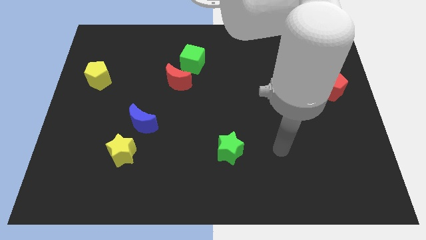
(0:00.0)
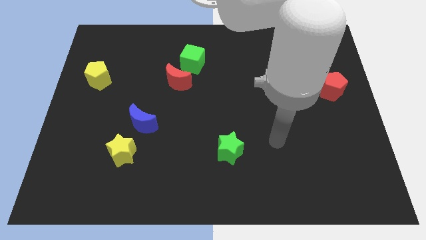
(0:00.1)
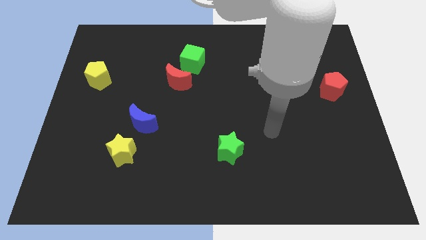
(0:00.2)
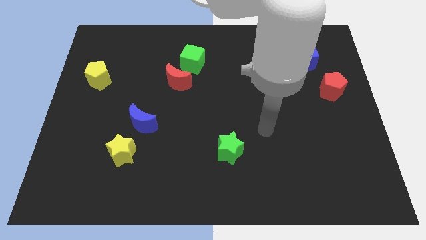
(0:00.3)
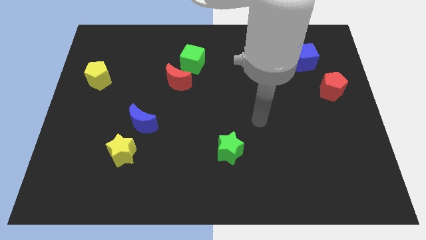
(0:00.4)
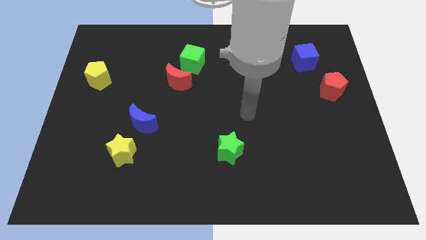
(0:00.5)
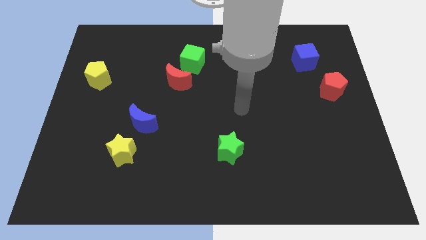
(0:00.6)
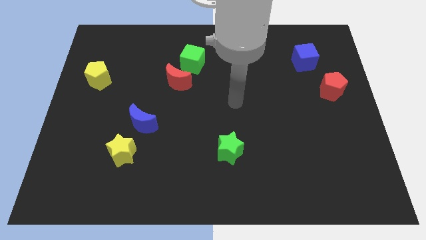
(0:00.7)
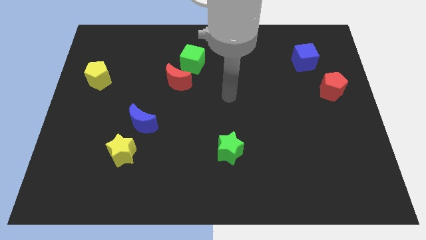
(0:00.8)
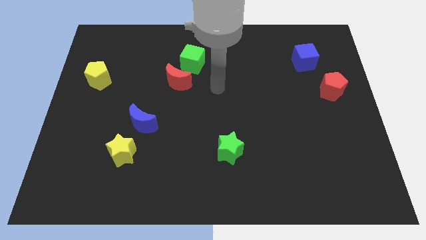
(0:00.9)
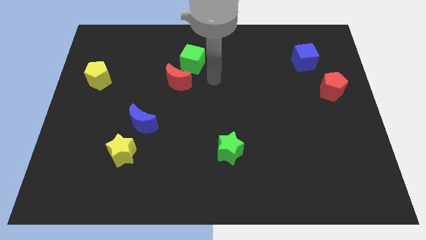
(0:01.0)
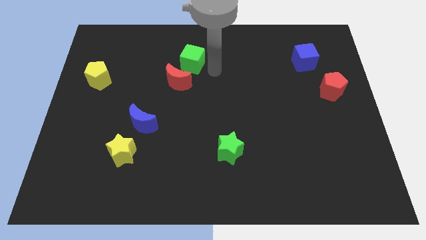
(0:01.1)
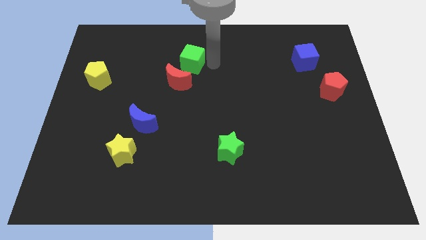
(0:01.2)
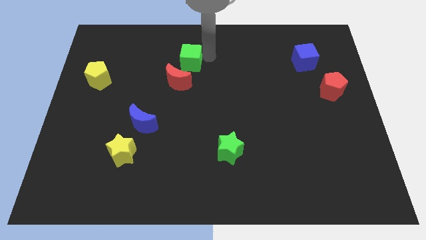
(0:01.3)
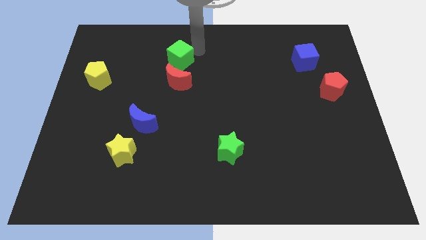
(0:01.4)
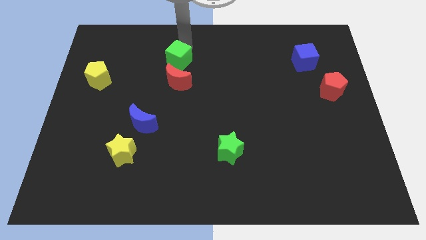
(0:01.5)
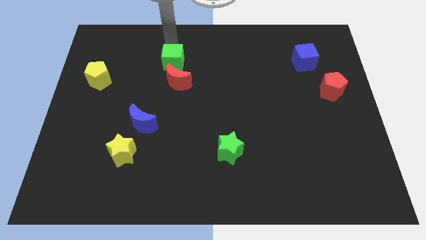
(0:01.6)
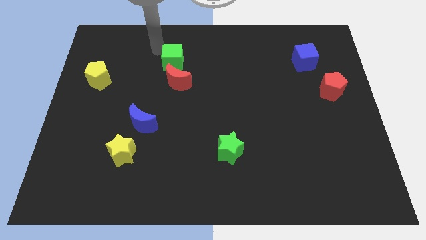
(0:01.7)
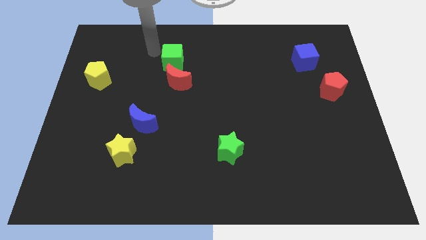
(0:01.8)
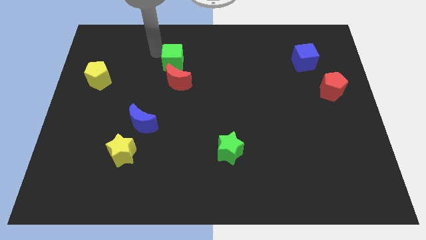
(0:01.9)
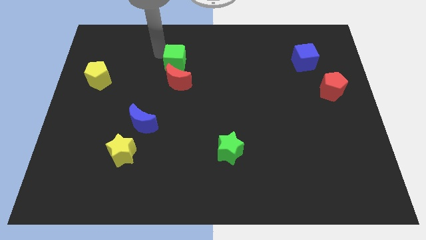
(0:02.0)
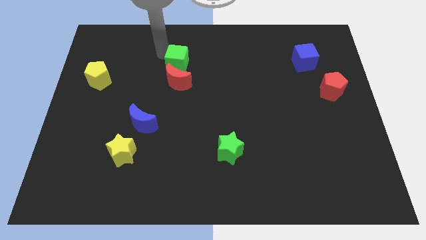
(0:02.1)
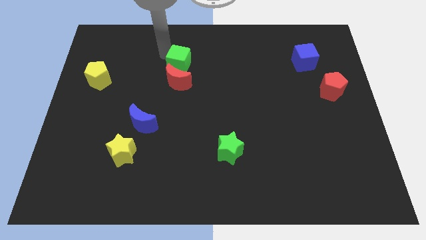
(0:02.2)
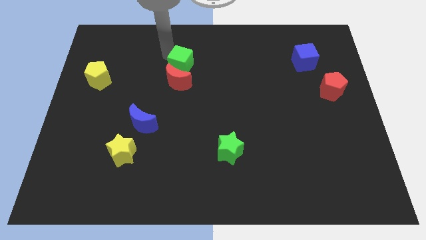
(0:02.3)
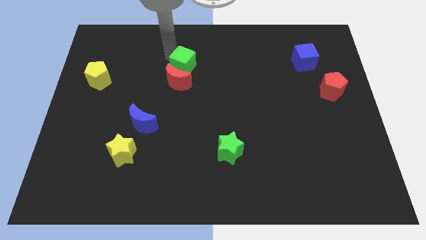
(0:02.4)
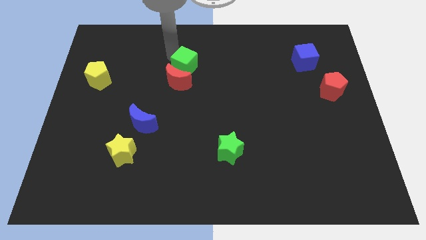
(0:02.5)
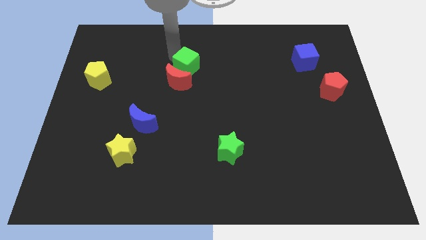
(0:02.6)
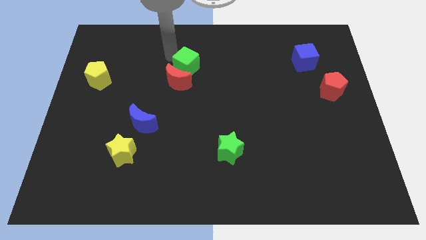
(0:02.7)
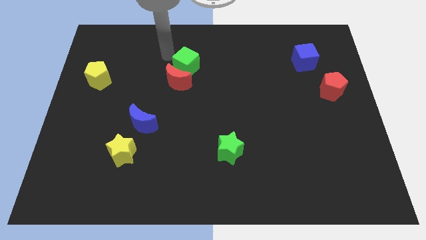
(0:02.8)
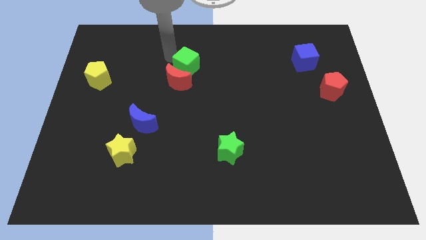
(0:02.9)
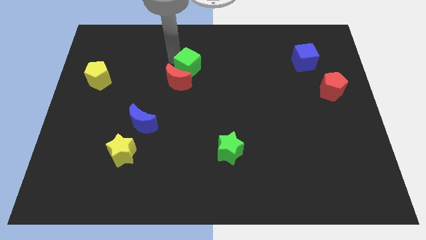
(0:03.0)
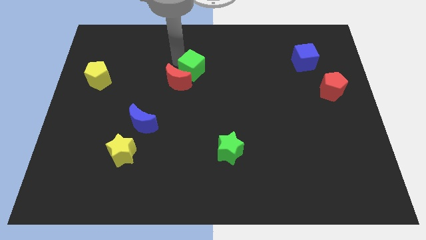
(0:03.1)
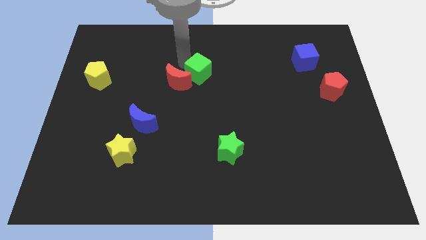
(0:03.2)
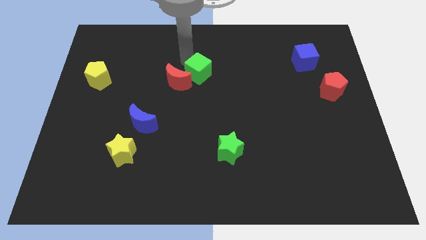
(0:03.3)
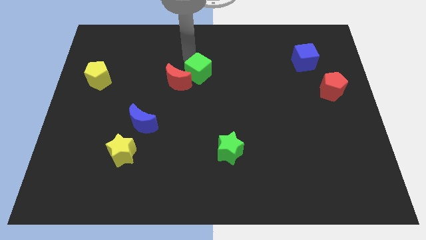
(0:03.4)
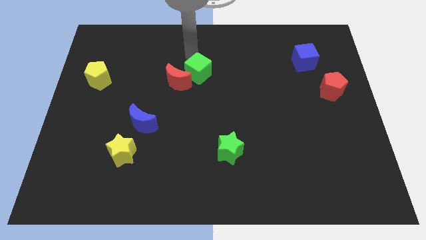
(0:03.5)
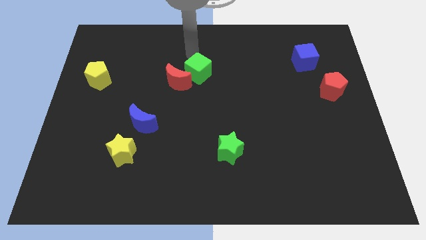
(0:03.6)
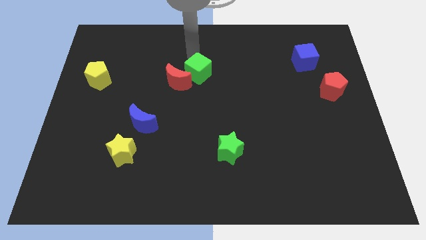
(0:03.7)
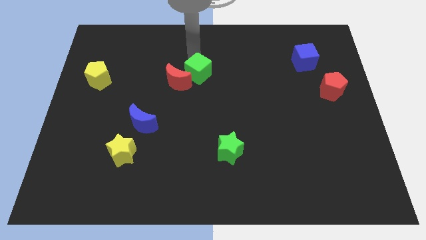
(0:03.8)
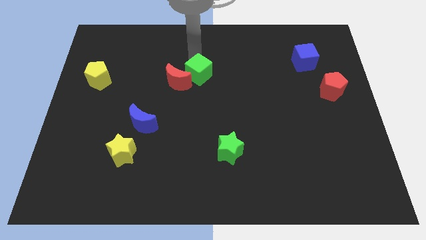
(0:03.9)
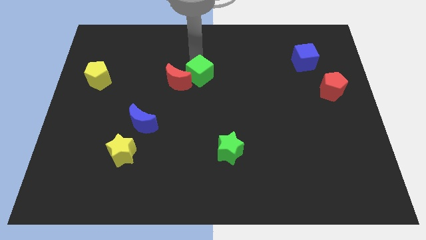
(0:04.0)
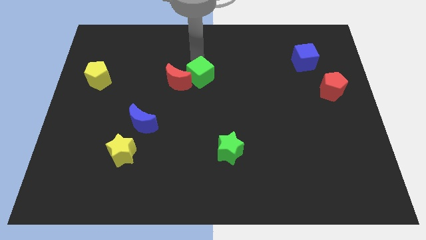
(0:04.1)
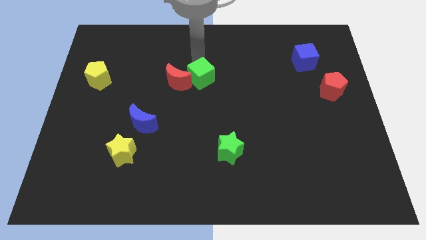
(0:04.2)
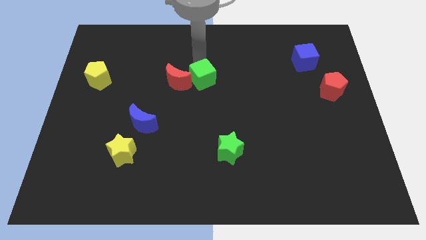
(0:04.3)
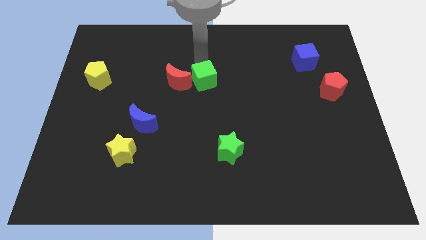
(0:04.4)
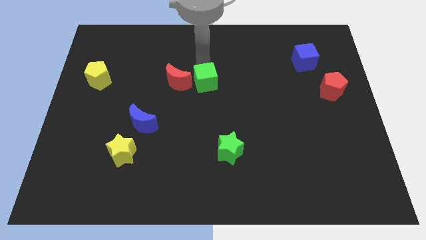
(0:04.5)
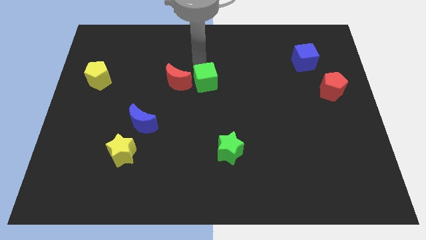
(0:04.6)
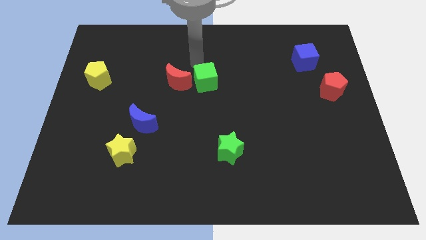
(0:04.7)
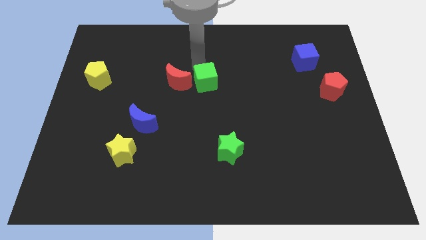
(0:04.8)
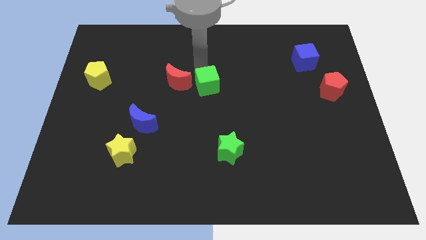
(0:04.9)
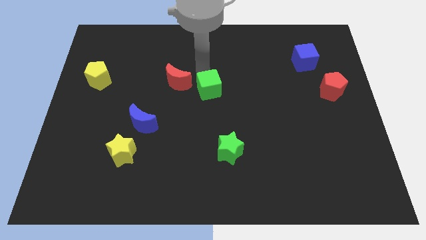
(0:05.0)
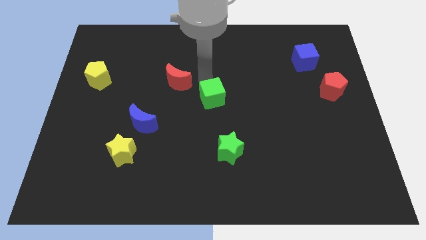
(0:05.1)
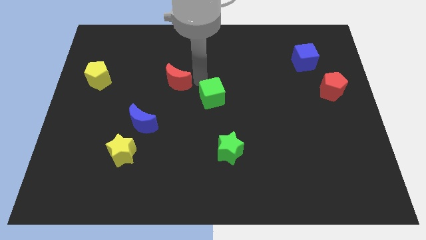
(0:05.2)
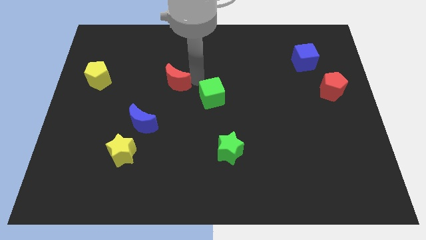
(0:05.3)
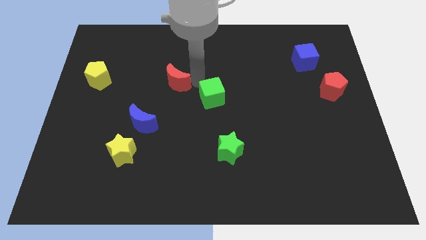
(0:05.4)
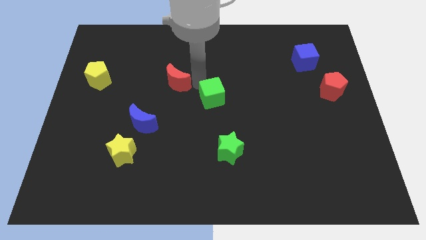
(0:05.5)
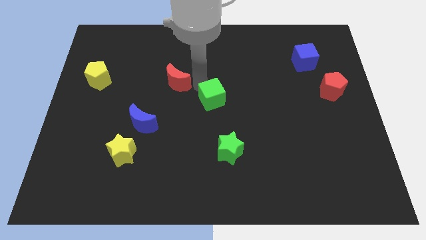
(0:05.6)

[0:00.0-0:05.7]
put the green cube to the top of the green star

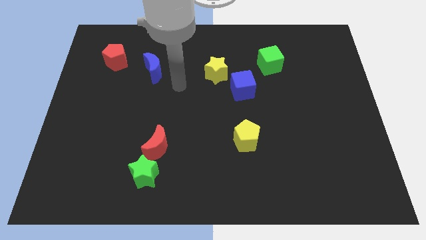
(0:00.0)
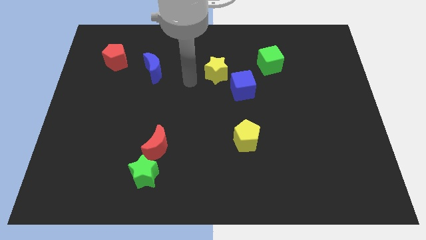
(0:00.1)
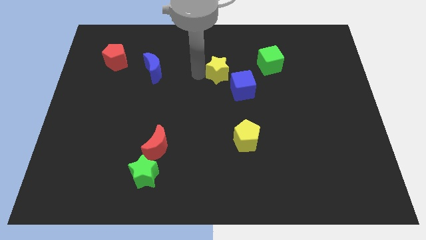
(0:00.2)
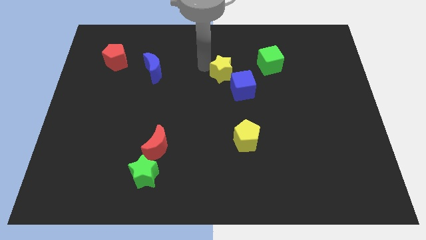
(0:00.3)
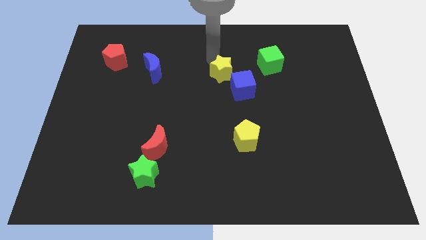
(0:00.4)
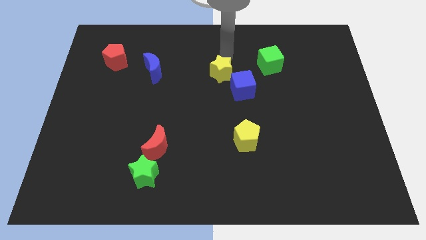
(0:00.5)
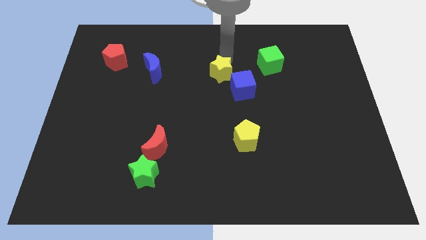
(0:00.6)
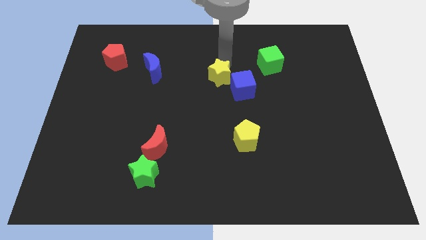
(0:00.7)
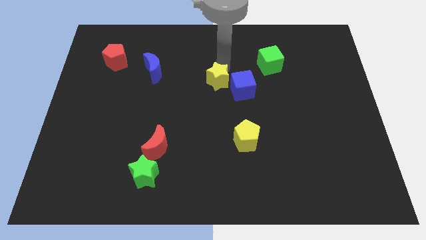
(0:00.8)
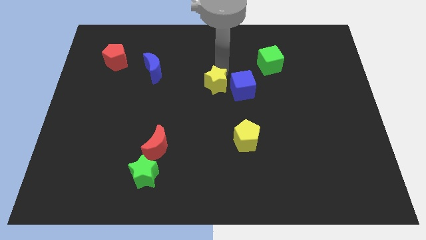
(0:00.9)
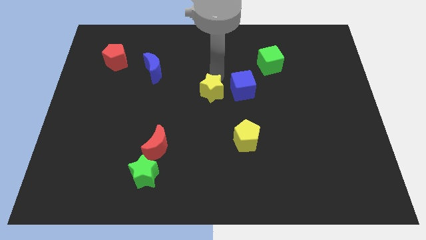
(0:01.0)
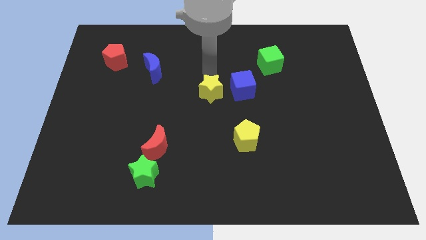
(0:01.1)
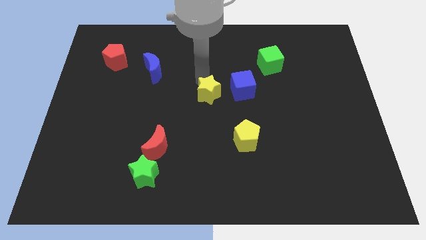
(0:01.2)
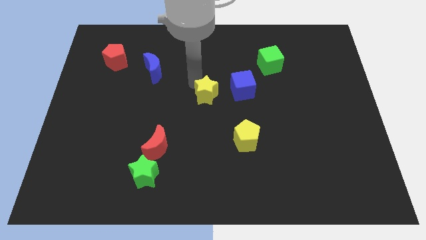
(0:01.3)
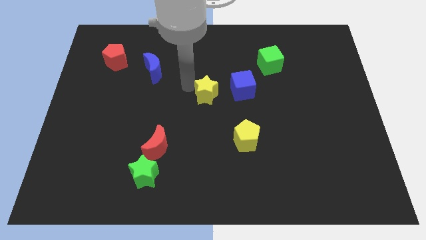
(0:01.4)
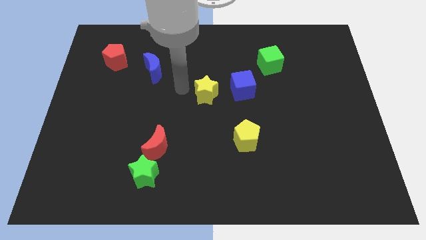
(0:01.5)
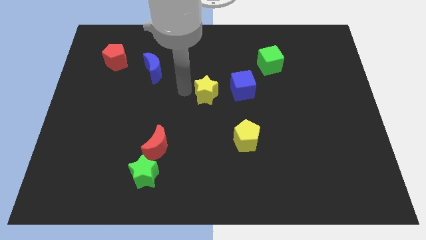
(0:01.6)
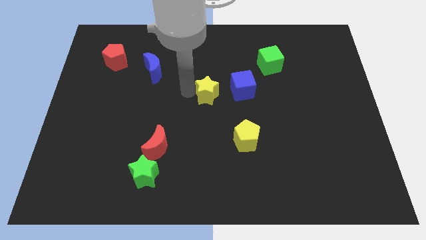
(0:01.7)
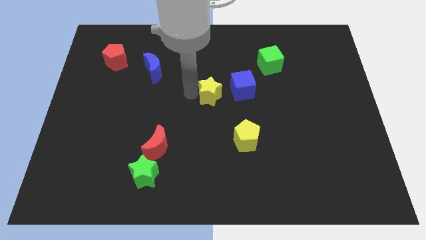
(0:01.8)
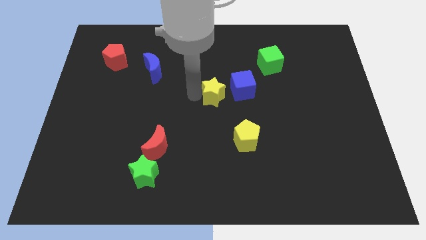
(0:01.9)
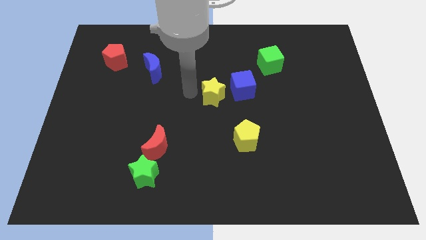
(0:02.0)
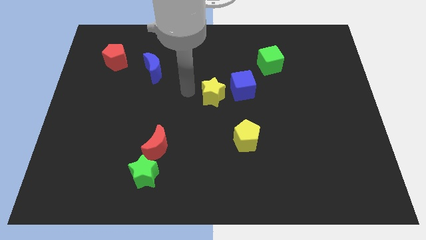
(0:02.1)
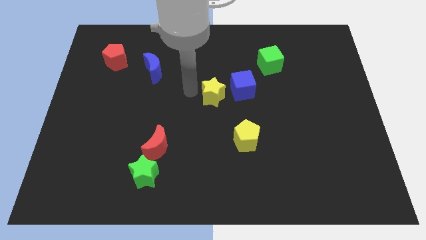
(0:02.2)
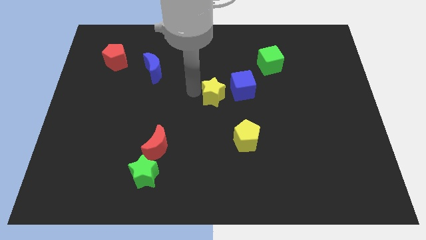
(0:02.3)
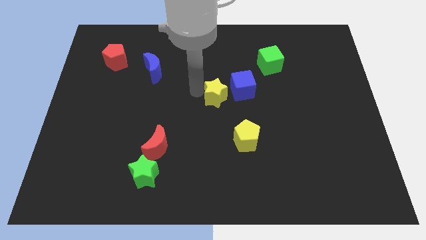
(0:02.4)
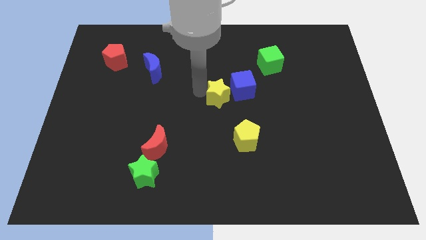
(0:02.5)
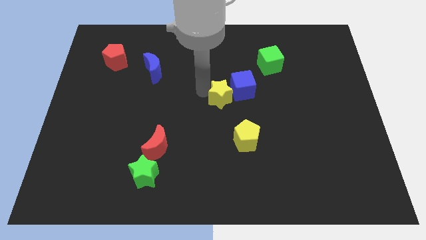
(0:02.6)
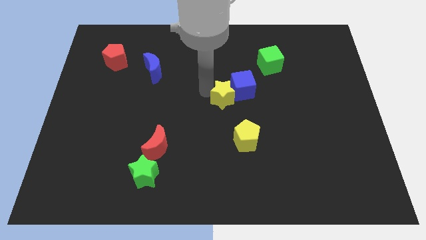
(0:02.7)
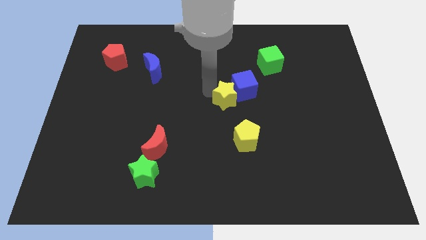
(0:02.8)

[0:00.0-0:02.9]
put the yellow star to the top of the yellow pentagon
